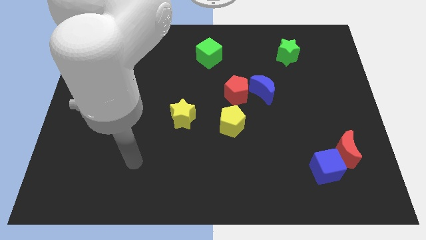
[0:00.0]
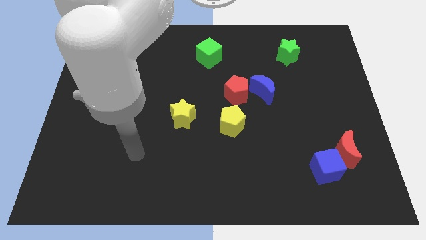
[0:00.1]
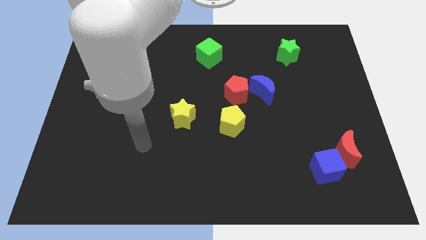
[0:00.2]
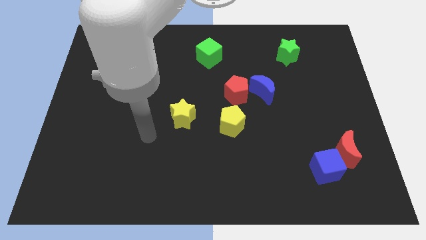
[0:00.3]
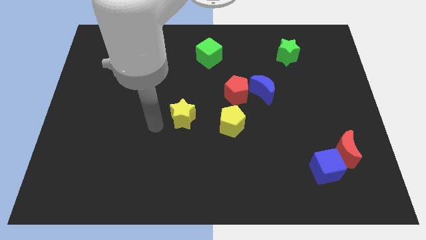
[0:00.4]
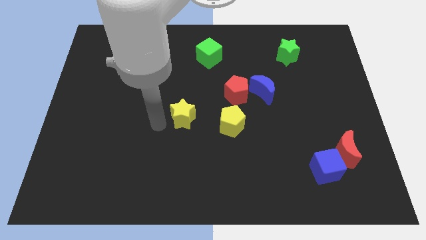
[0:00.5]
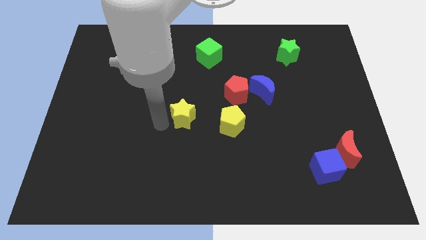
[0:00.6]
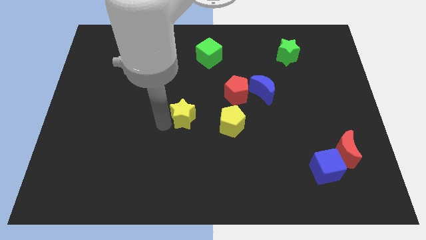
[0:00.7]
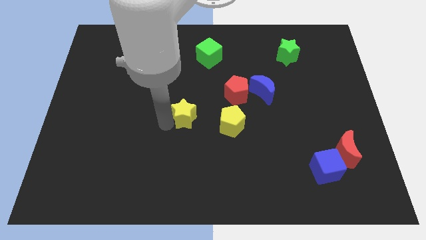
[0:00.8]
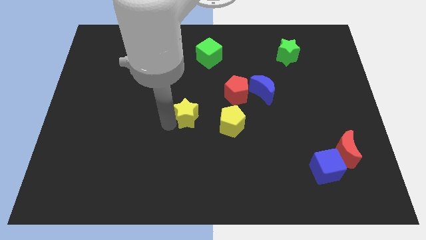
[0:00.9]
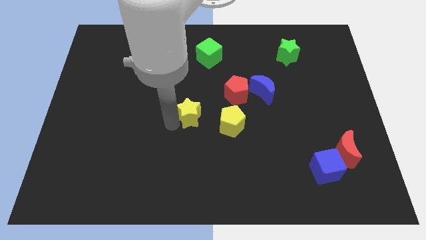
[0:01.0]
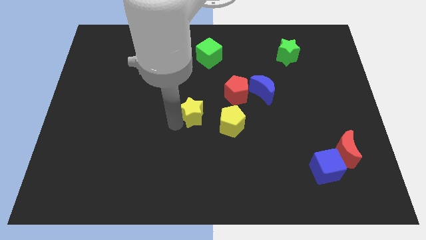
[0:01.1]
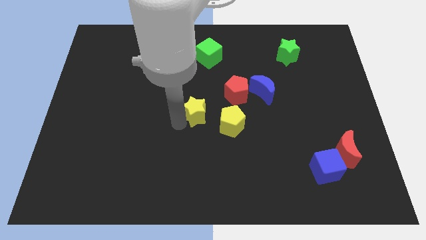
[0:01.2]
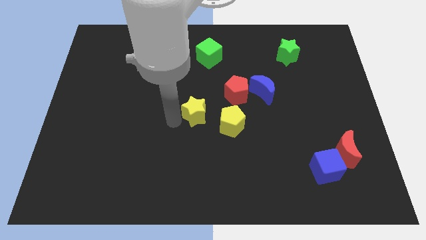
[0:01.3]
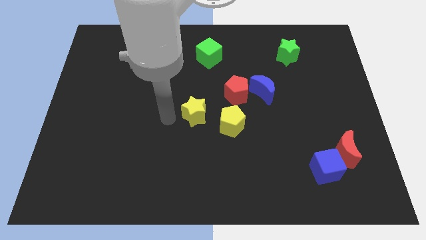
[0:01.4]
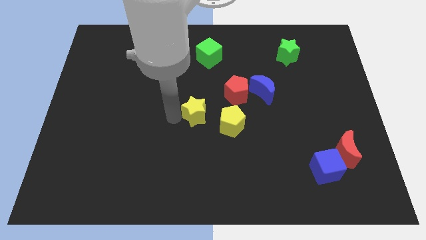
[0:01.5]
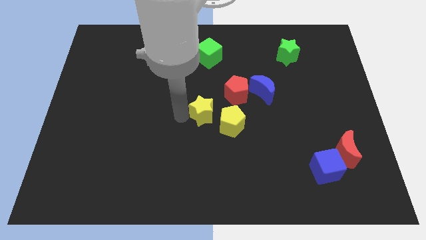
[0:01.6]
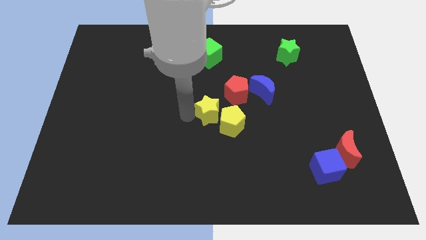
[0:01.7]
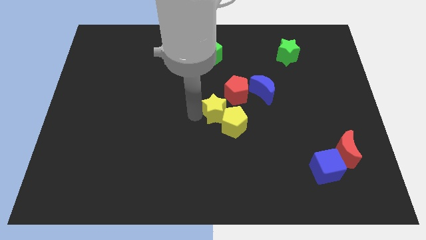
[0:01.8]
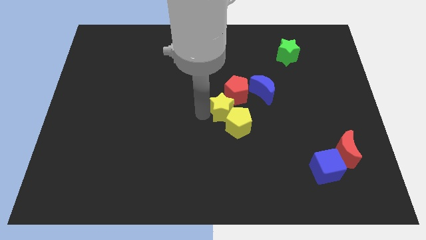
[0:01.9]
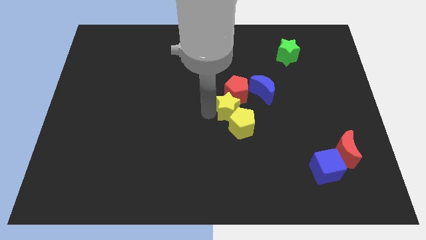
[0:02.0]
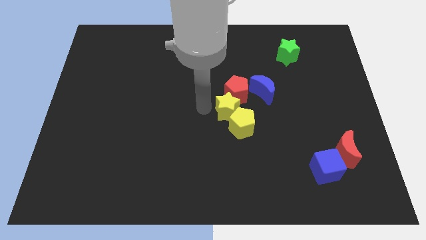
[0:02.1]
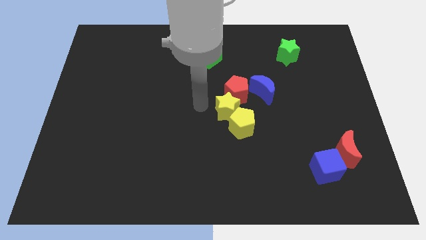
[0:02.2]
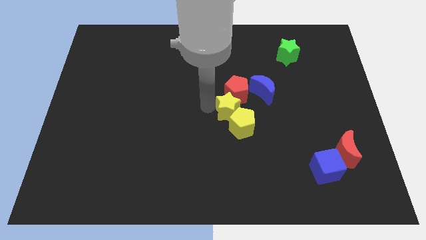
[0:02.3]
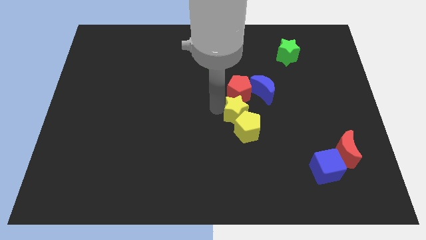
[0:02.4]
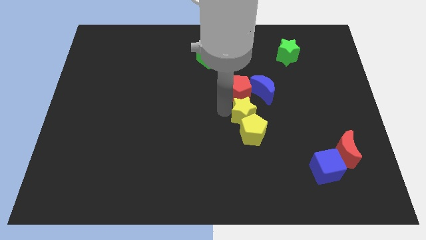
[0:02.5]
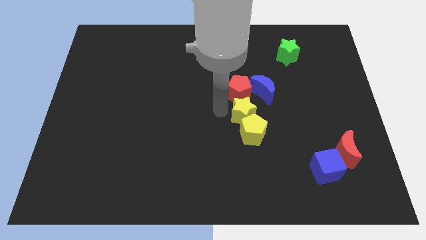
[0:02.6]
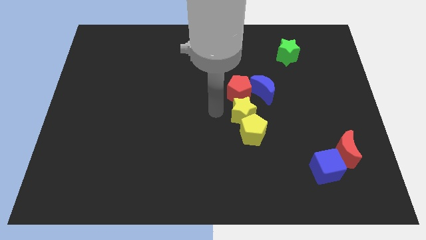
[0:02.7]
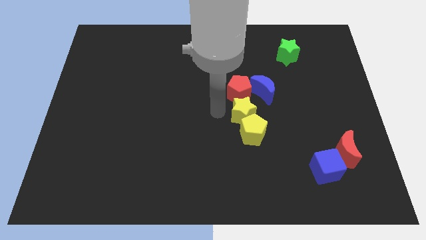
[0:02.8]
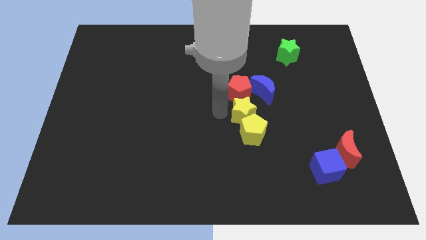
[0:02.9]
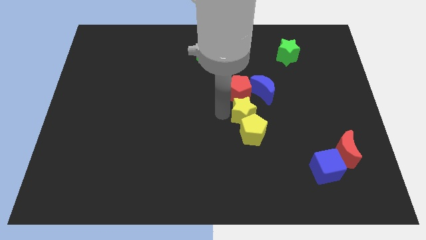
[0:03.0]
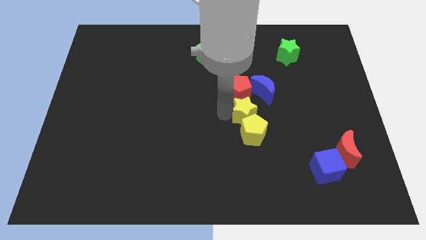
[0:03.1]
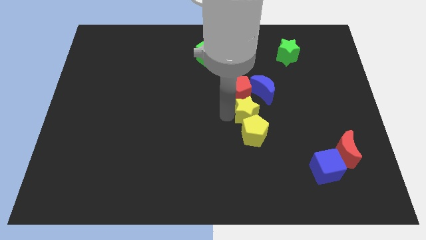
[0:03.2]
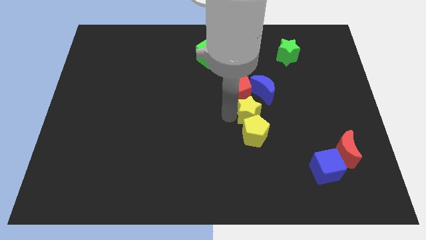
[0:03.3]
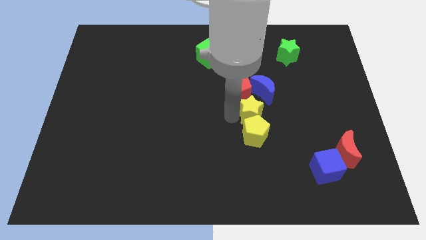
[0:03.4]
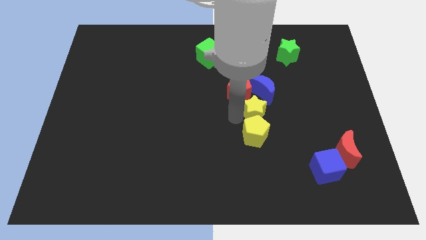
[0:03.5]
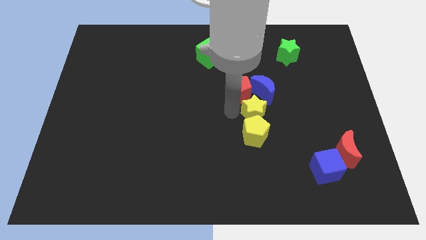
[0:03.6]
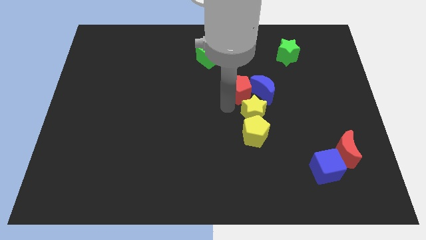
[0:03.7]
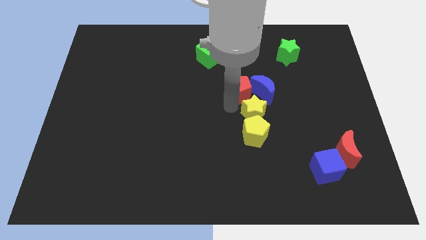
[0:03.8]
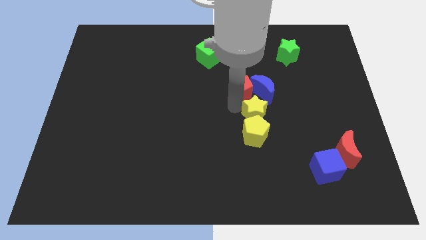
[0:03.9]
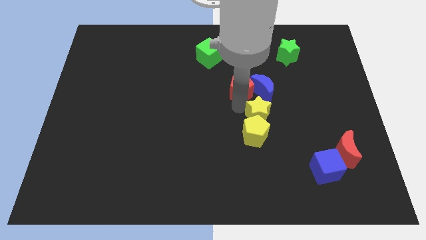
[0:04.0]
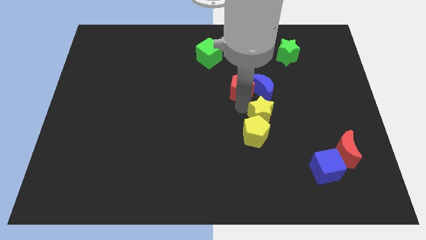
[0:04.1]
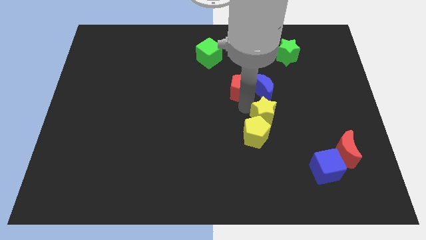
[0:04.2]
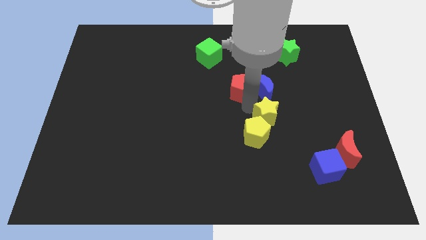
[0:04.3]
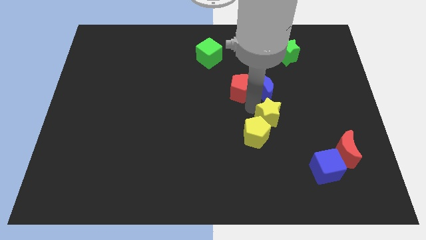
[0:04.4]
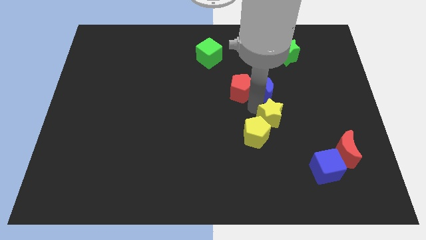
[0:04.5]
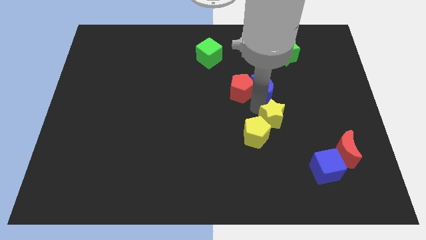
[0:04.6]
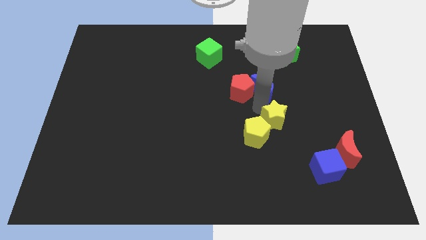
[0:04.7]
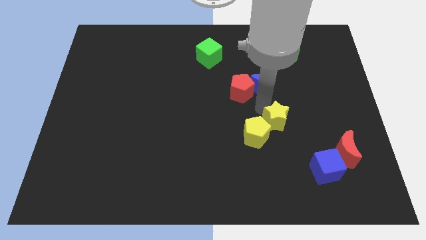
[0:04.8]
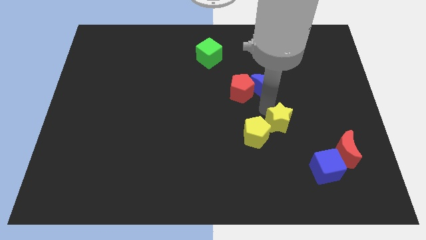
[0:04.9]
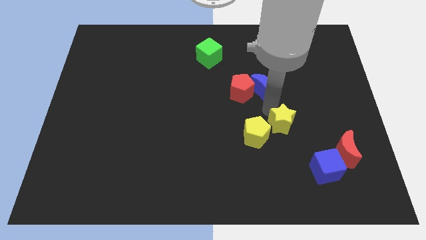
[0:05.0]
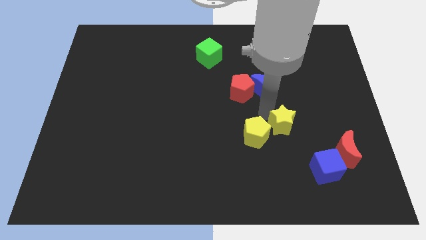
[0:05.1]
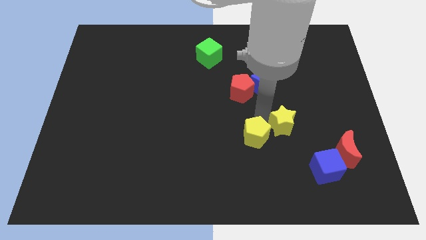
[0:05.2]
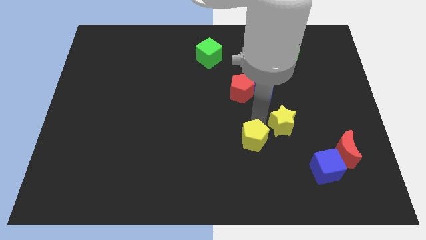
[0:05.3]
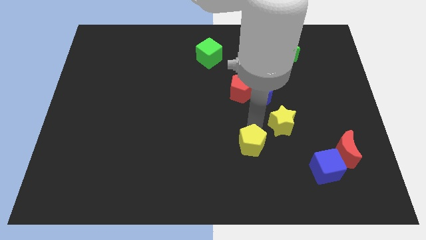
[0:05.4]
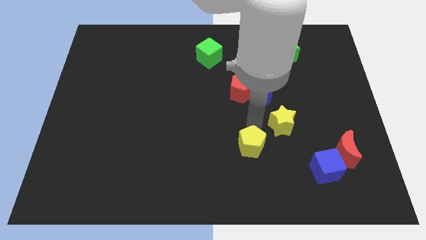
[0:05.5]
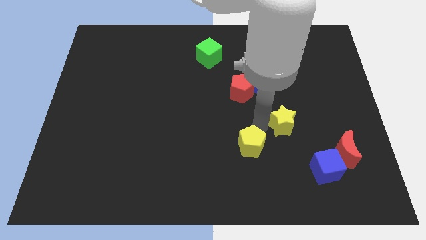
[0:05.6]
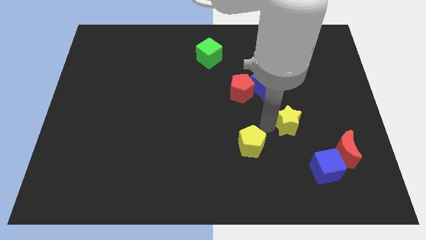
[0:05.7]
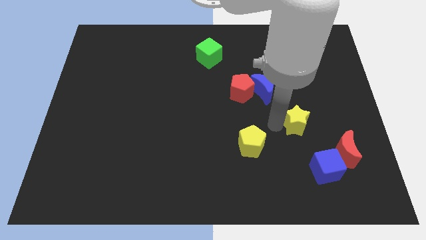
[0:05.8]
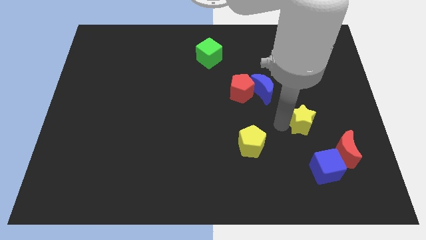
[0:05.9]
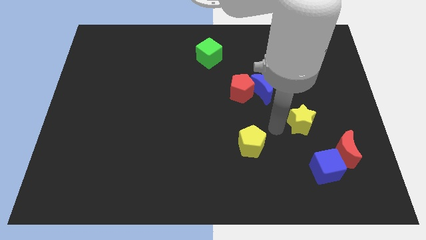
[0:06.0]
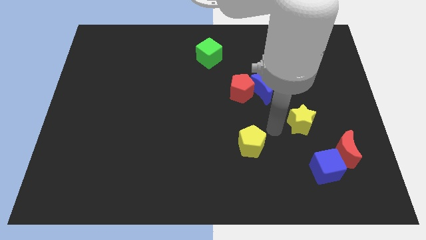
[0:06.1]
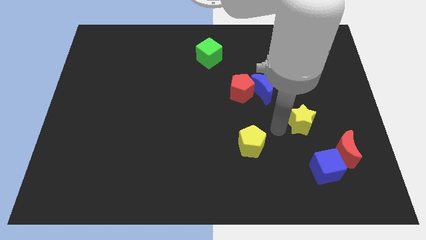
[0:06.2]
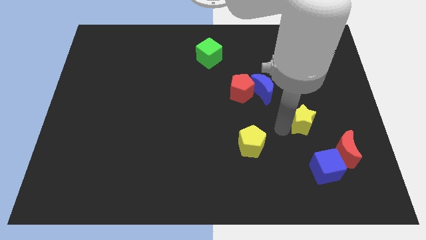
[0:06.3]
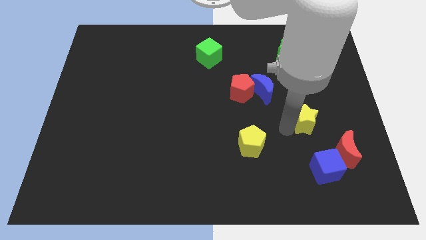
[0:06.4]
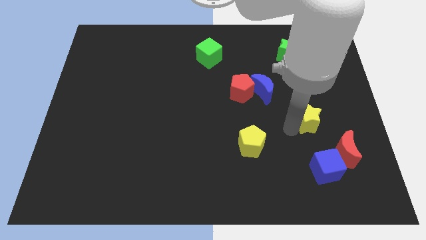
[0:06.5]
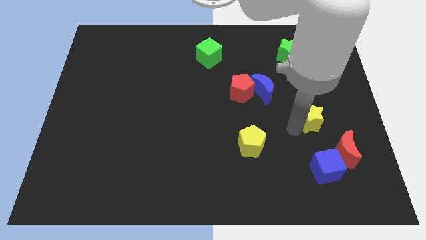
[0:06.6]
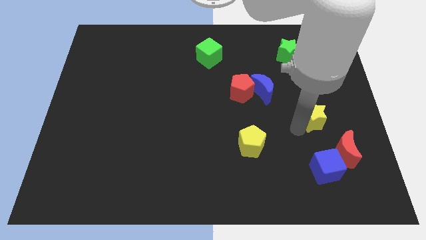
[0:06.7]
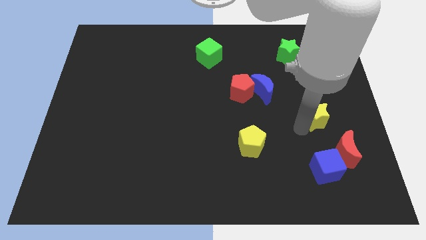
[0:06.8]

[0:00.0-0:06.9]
move the yellow star above the red moon

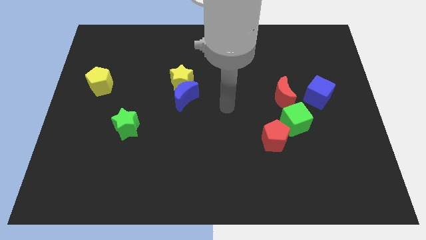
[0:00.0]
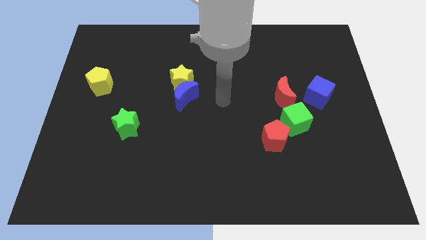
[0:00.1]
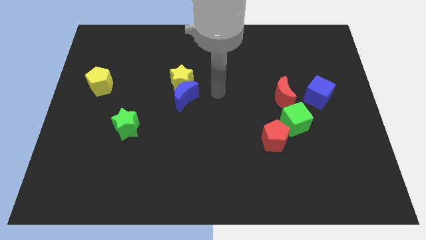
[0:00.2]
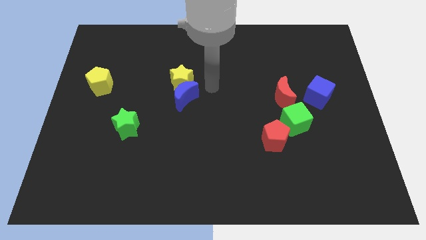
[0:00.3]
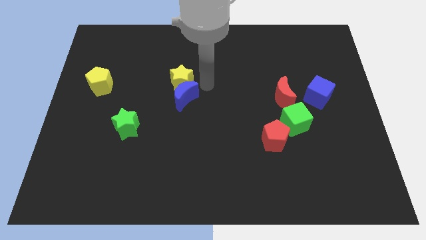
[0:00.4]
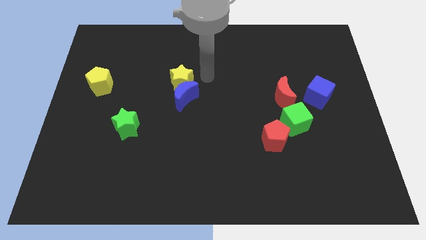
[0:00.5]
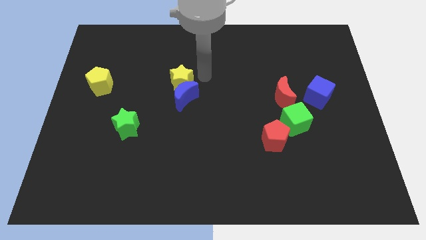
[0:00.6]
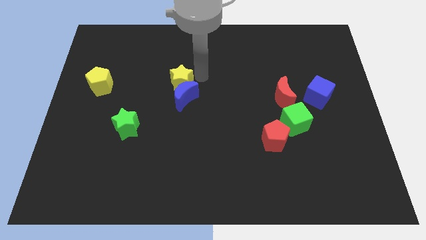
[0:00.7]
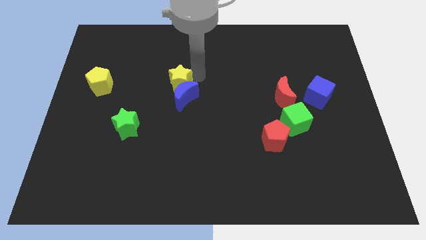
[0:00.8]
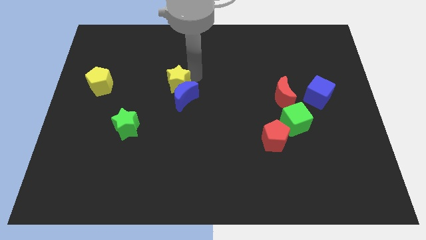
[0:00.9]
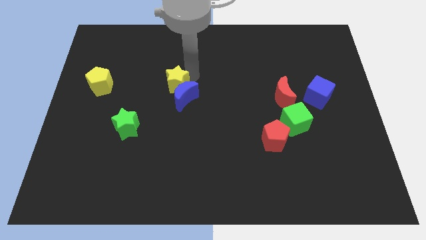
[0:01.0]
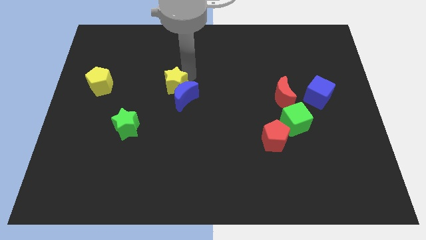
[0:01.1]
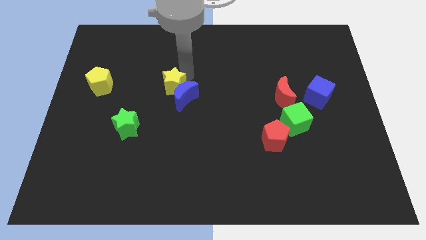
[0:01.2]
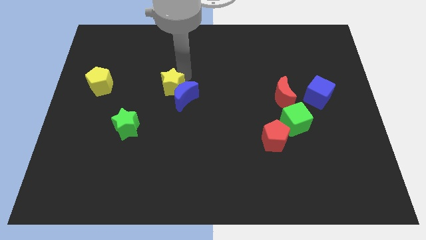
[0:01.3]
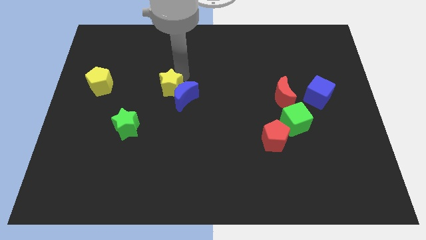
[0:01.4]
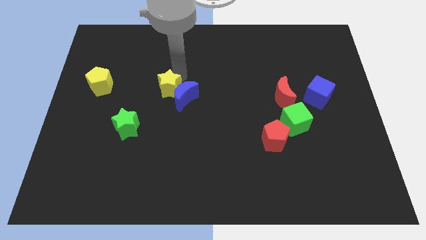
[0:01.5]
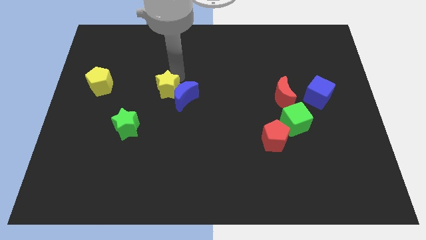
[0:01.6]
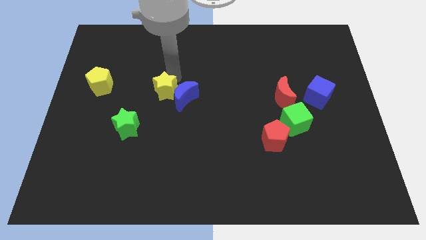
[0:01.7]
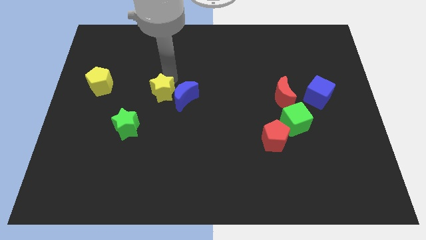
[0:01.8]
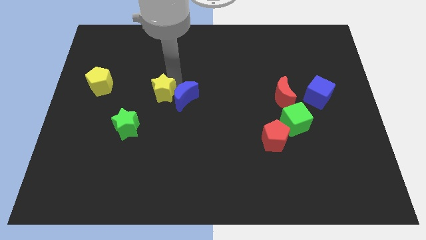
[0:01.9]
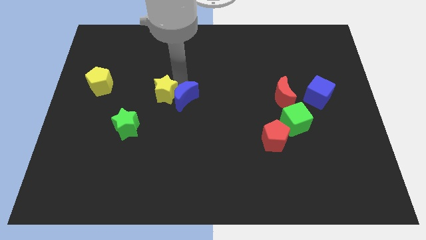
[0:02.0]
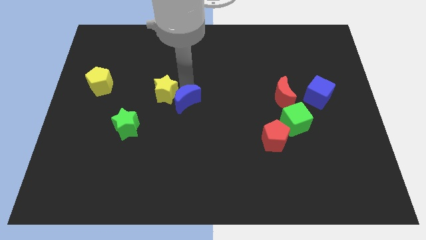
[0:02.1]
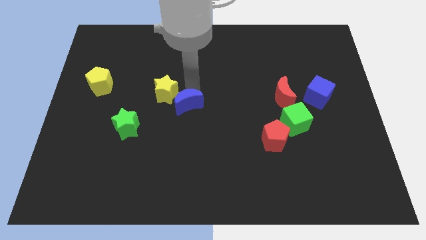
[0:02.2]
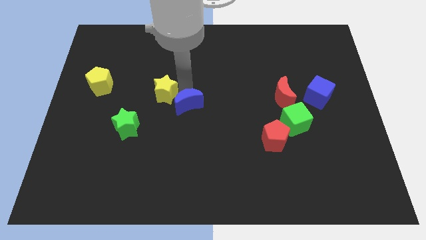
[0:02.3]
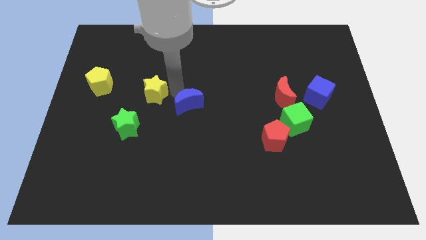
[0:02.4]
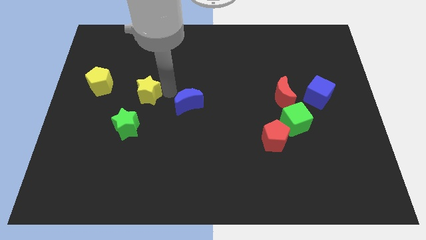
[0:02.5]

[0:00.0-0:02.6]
put the yellow star to the top side of the green star
